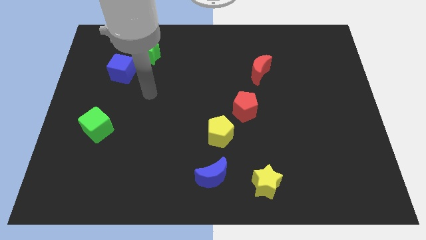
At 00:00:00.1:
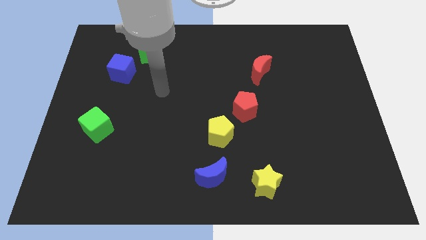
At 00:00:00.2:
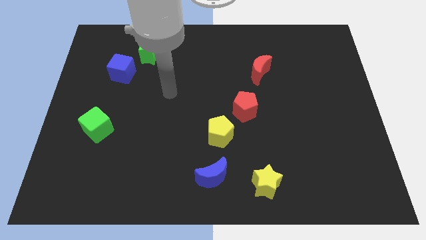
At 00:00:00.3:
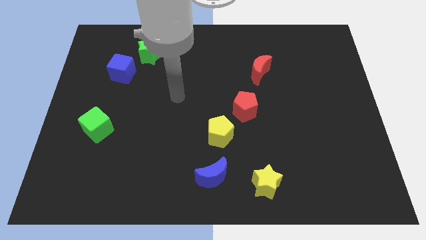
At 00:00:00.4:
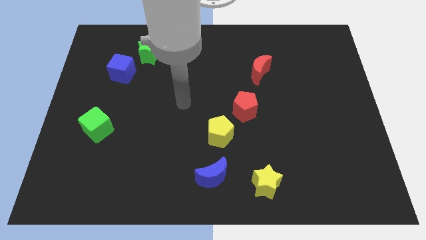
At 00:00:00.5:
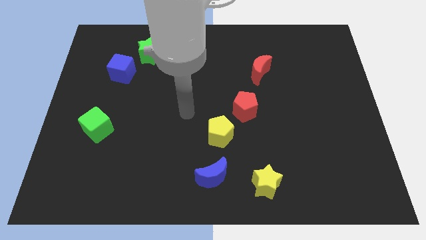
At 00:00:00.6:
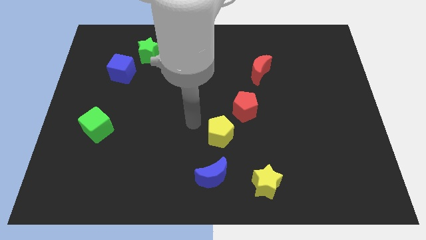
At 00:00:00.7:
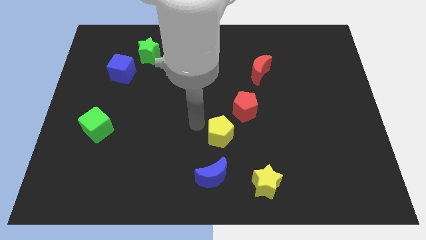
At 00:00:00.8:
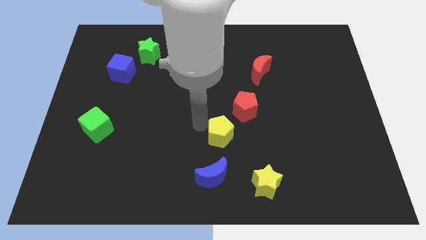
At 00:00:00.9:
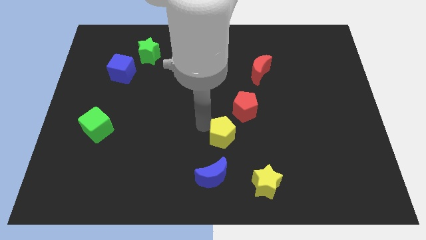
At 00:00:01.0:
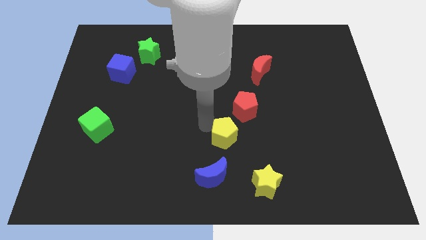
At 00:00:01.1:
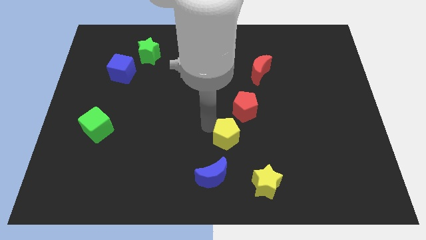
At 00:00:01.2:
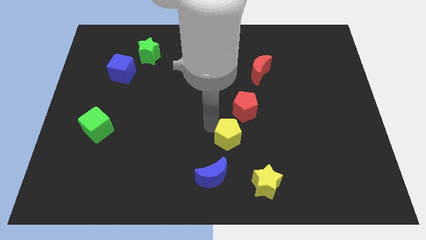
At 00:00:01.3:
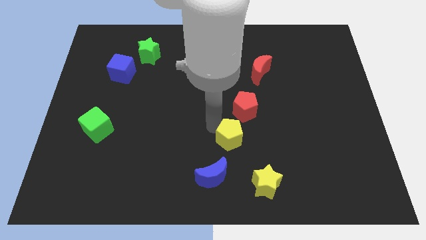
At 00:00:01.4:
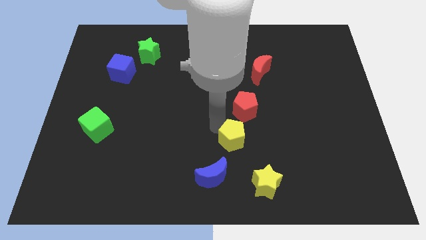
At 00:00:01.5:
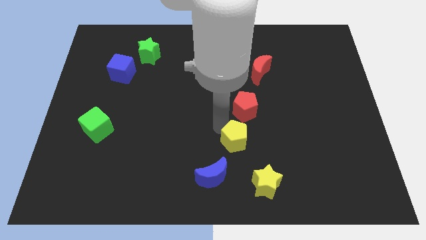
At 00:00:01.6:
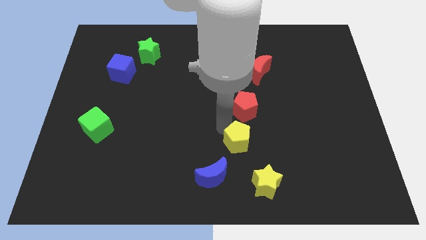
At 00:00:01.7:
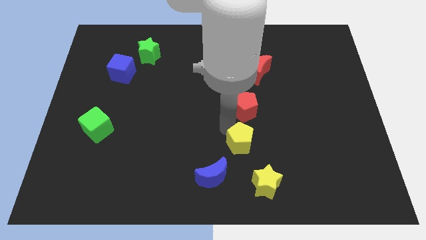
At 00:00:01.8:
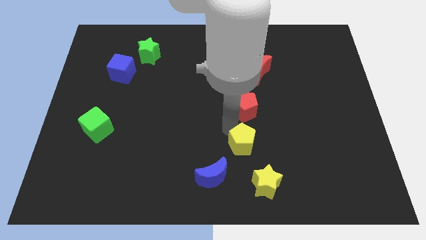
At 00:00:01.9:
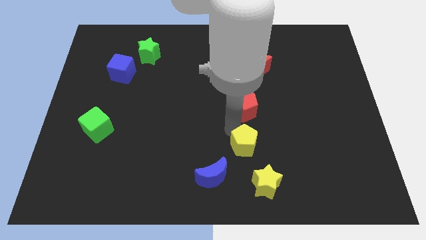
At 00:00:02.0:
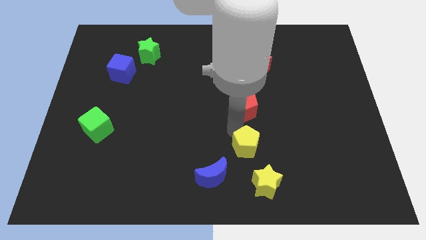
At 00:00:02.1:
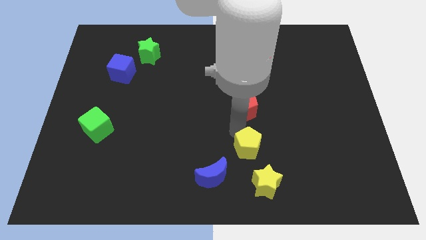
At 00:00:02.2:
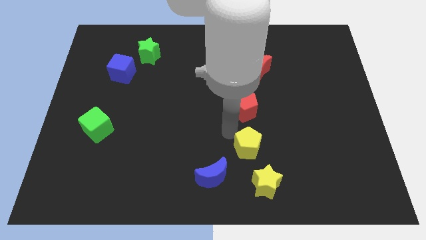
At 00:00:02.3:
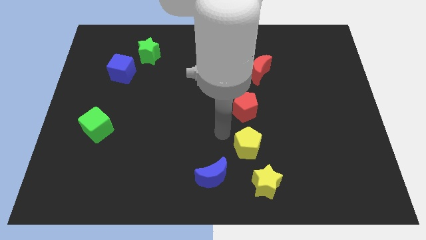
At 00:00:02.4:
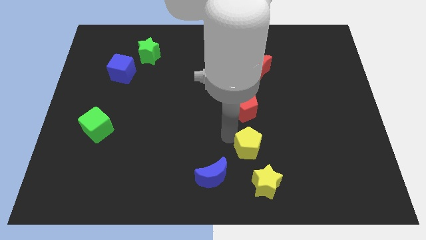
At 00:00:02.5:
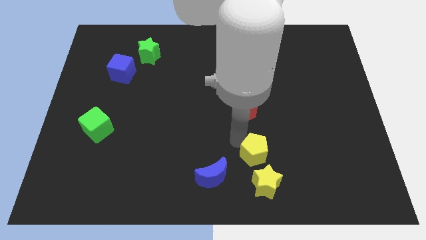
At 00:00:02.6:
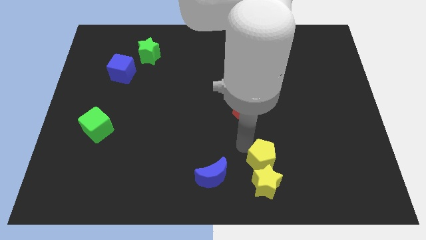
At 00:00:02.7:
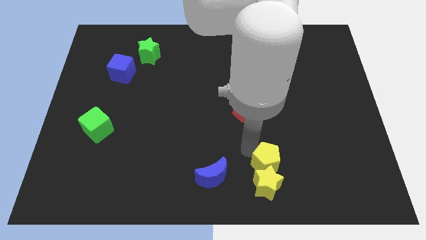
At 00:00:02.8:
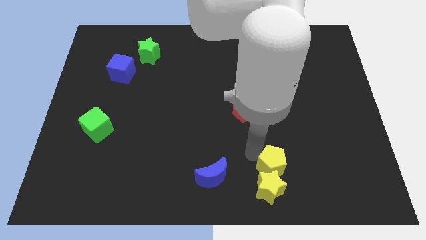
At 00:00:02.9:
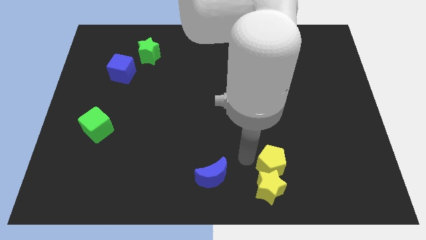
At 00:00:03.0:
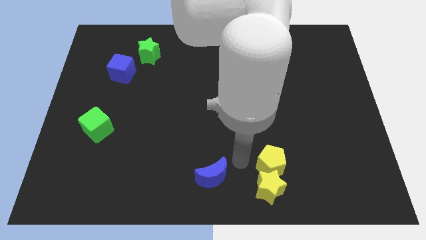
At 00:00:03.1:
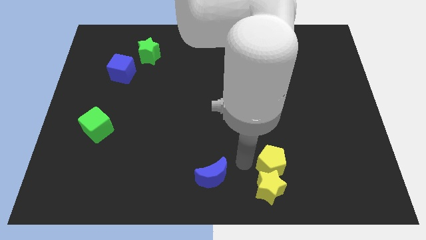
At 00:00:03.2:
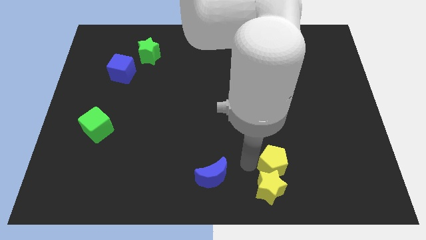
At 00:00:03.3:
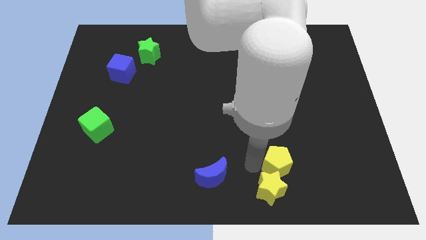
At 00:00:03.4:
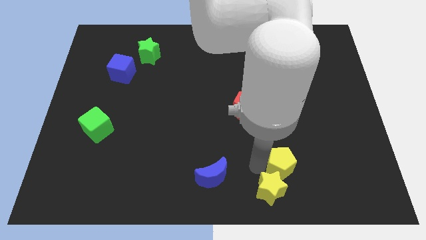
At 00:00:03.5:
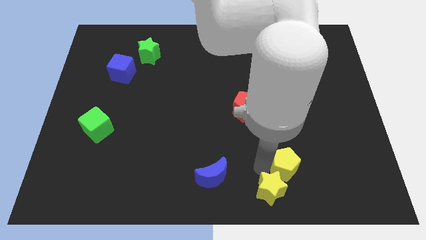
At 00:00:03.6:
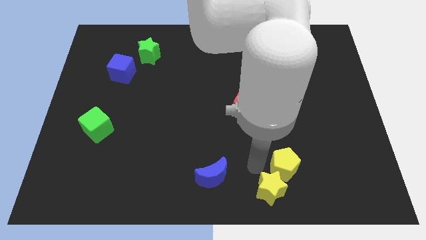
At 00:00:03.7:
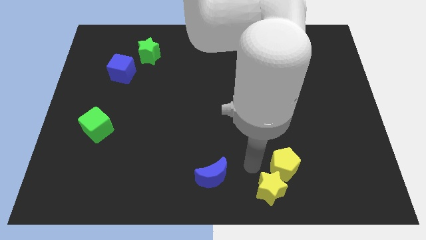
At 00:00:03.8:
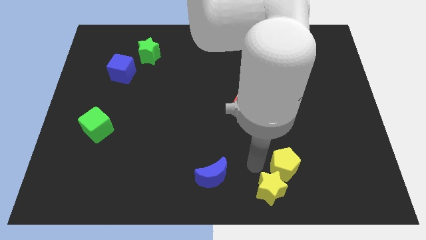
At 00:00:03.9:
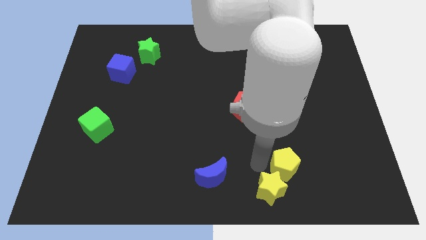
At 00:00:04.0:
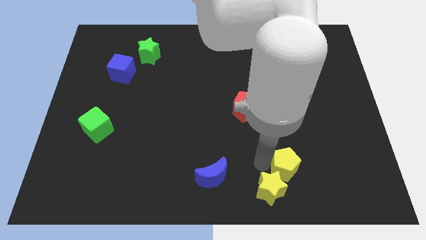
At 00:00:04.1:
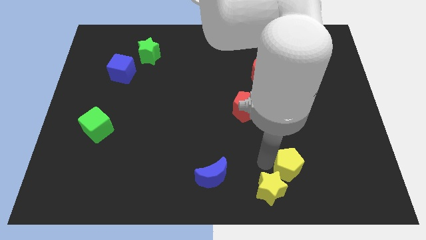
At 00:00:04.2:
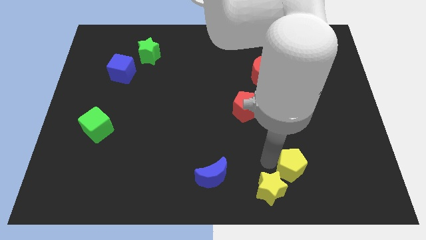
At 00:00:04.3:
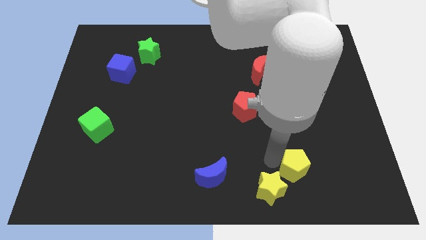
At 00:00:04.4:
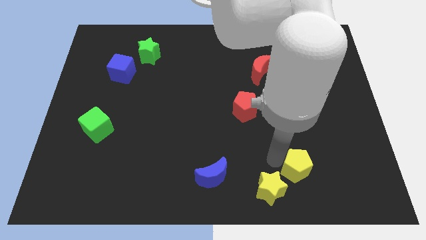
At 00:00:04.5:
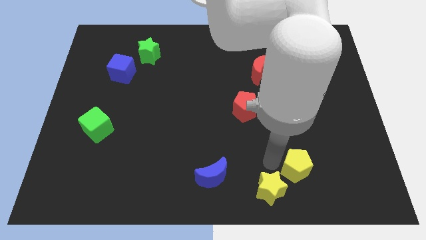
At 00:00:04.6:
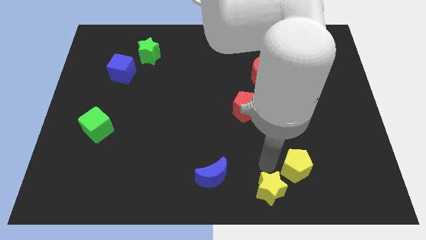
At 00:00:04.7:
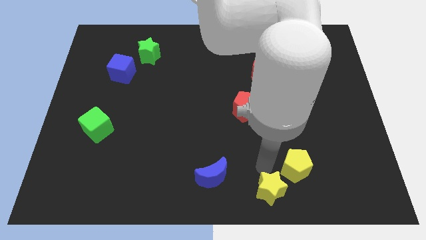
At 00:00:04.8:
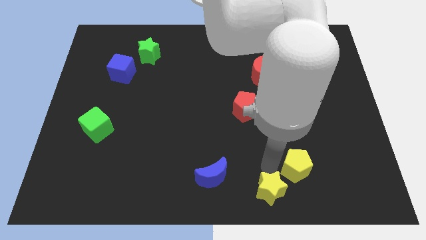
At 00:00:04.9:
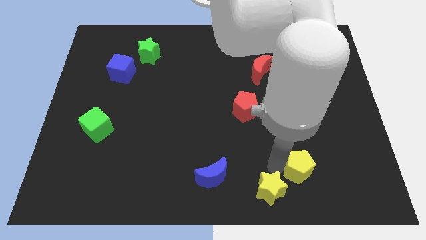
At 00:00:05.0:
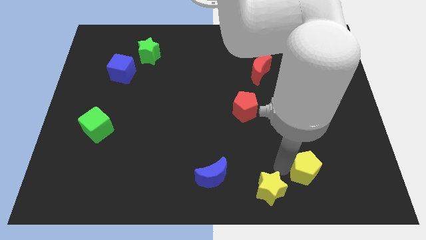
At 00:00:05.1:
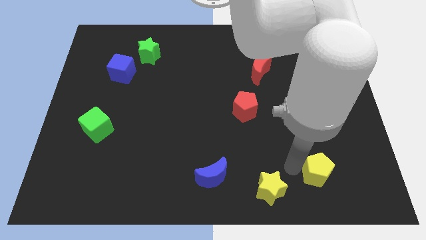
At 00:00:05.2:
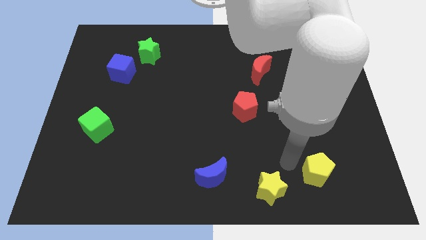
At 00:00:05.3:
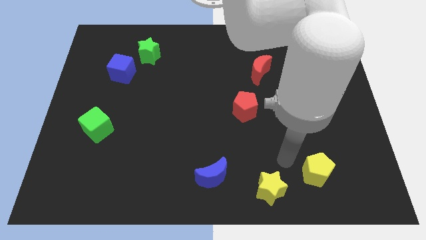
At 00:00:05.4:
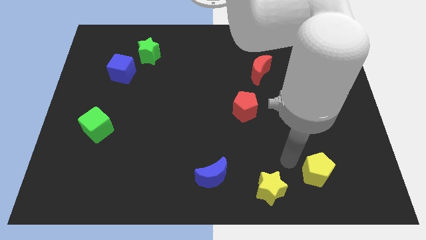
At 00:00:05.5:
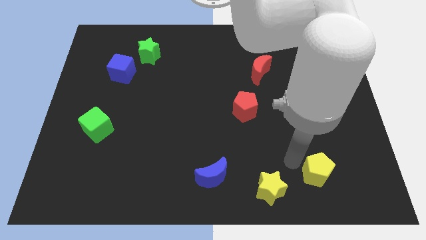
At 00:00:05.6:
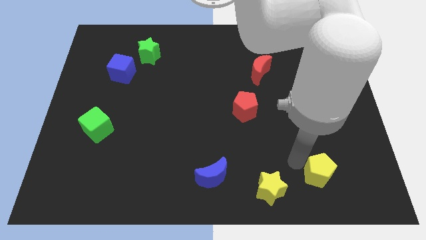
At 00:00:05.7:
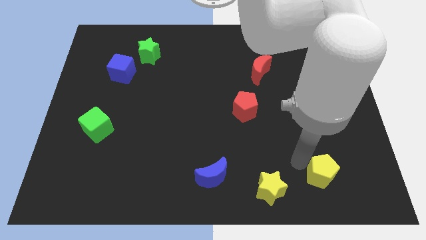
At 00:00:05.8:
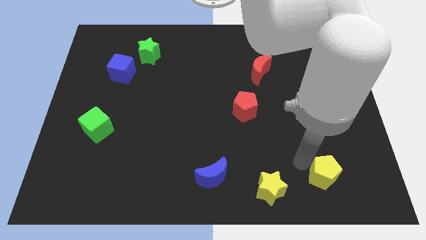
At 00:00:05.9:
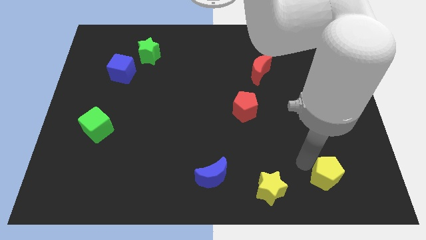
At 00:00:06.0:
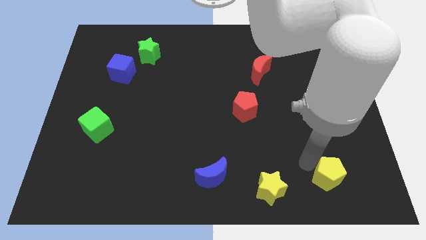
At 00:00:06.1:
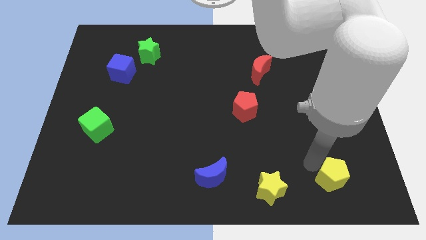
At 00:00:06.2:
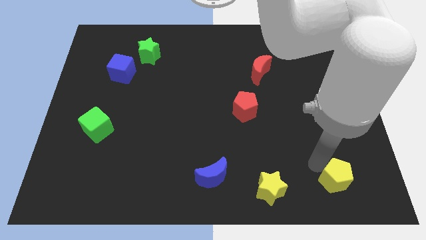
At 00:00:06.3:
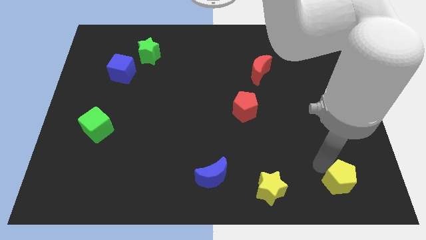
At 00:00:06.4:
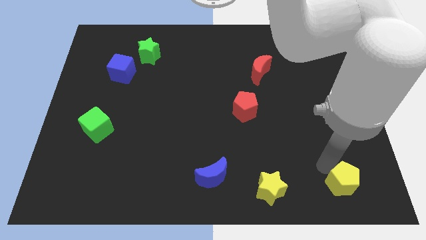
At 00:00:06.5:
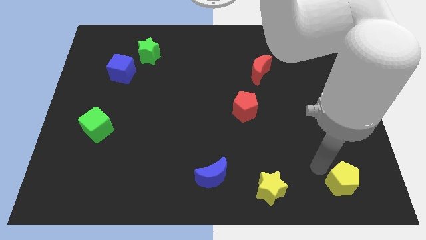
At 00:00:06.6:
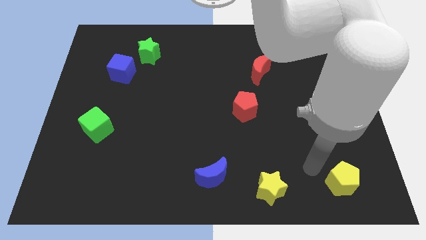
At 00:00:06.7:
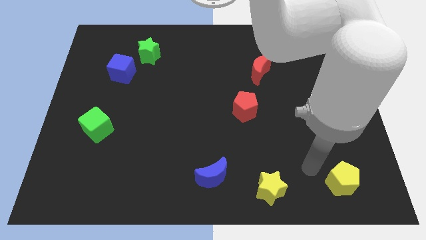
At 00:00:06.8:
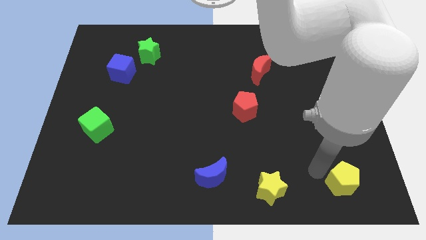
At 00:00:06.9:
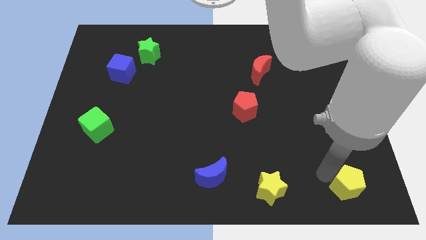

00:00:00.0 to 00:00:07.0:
move the yellow pentagon to the bottom right of the board
